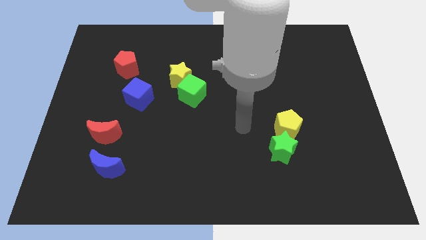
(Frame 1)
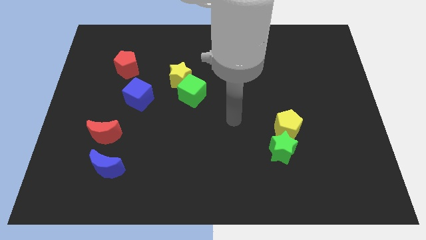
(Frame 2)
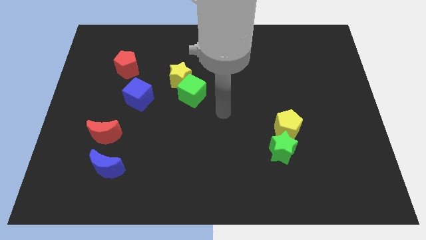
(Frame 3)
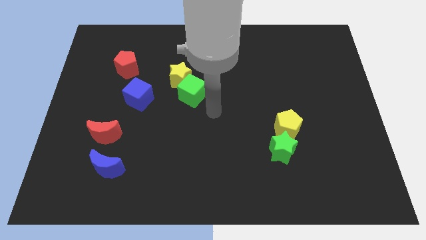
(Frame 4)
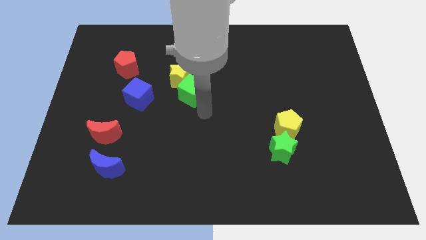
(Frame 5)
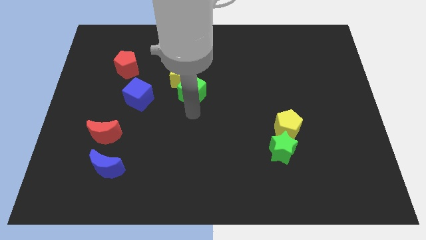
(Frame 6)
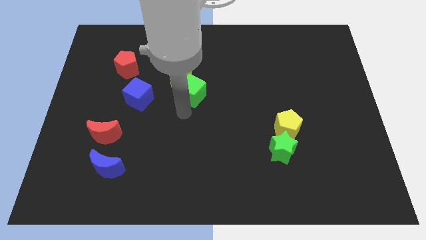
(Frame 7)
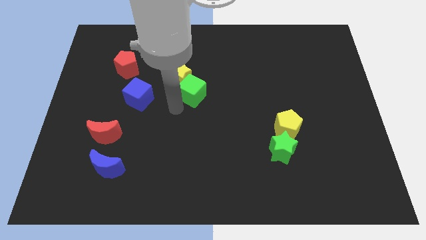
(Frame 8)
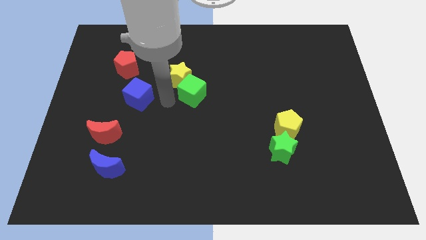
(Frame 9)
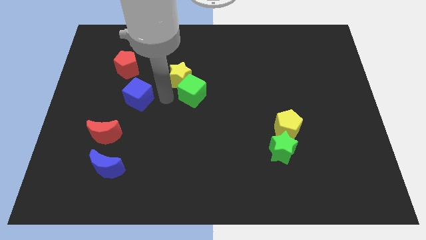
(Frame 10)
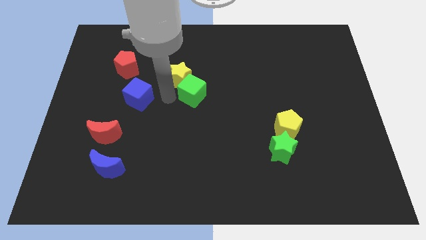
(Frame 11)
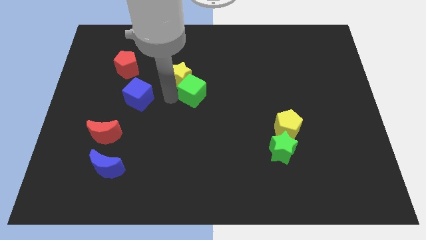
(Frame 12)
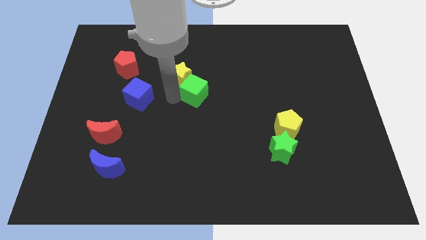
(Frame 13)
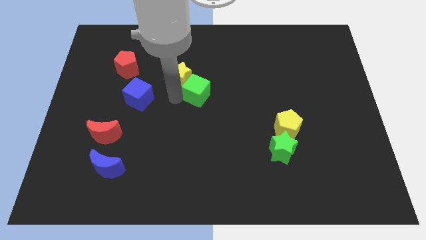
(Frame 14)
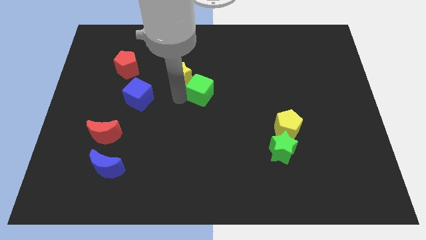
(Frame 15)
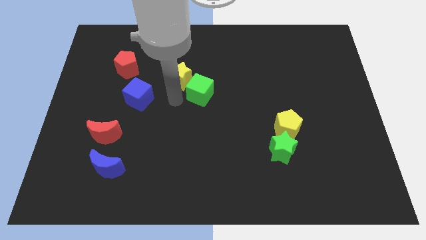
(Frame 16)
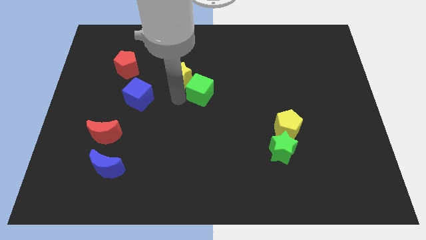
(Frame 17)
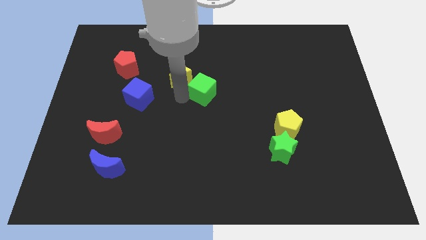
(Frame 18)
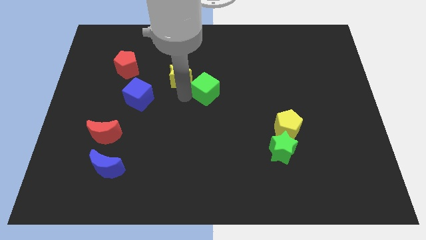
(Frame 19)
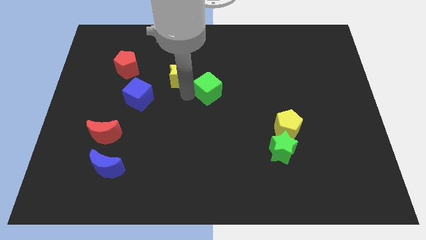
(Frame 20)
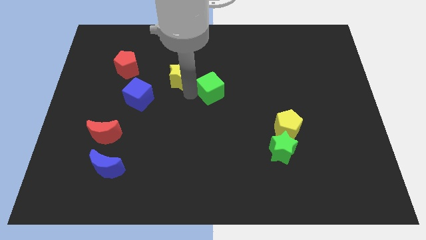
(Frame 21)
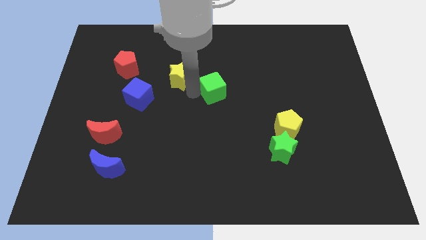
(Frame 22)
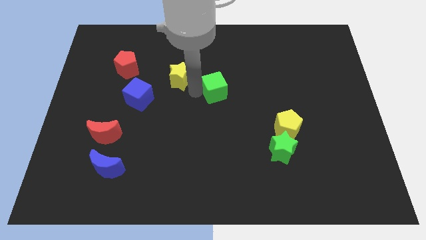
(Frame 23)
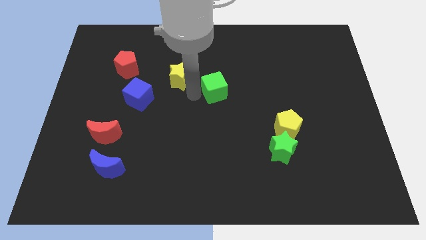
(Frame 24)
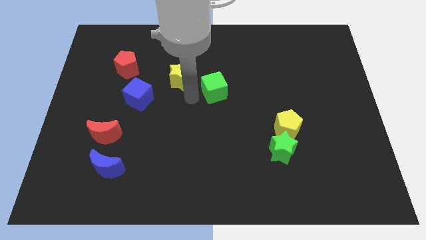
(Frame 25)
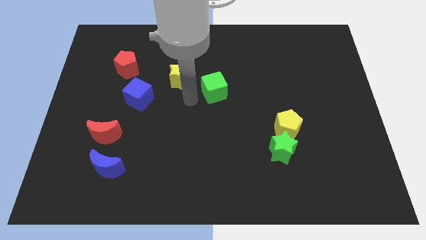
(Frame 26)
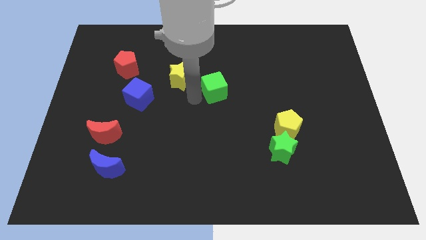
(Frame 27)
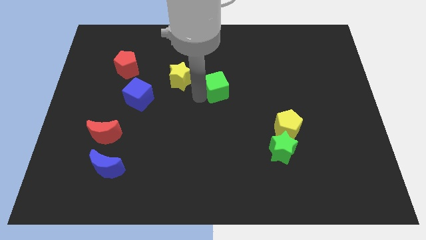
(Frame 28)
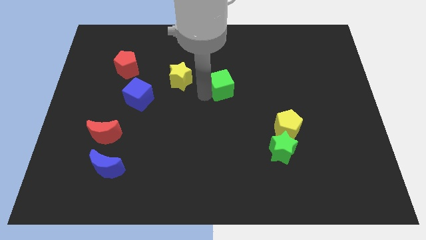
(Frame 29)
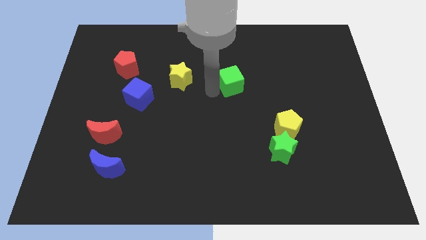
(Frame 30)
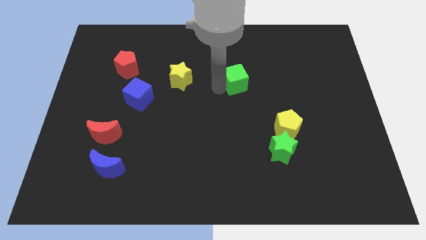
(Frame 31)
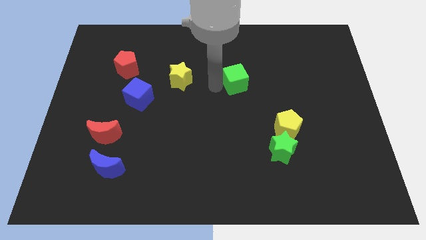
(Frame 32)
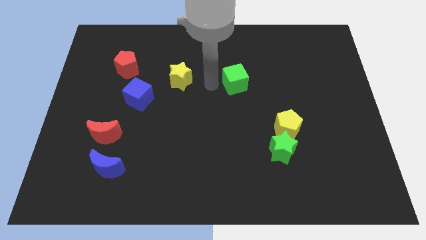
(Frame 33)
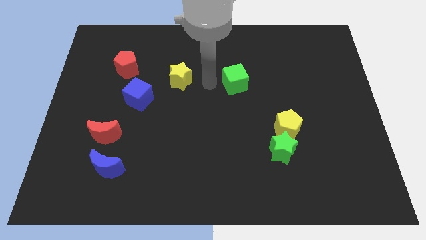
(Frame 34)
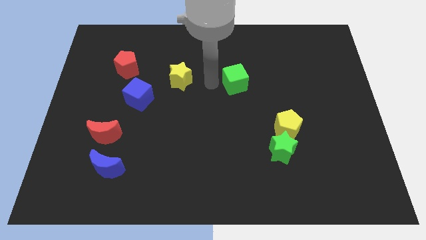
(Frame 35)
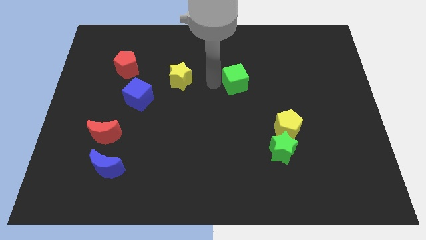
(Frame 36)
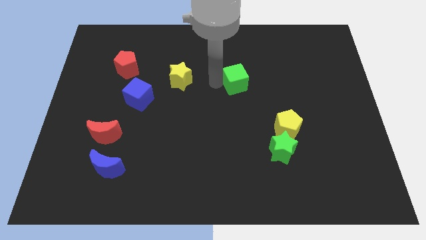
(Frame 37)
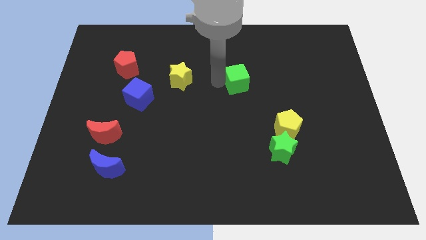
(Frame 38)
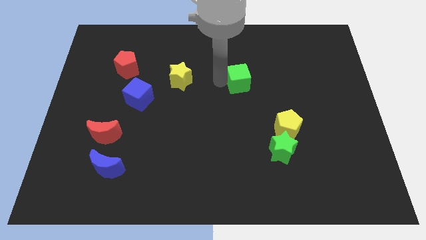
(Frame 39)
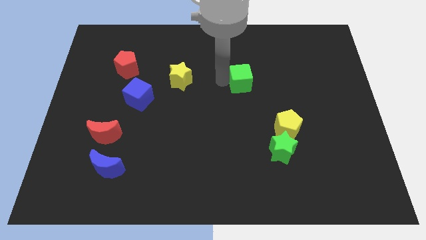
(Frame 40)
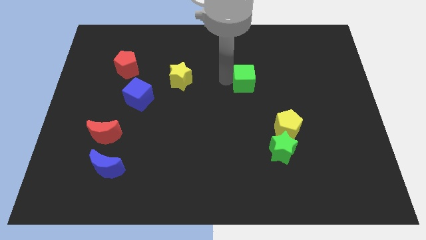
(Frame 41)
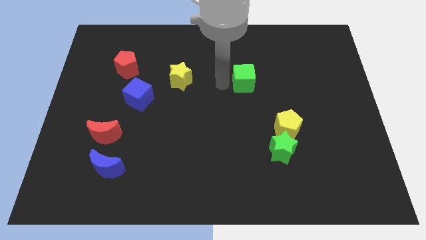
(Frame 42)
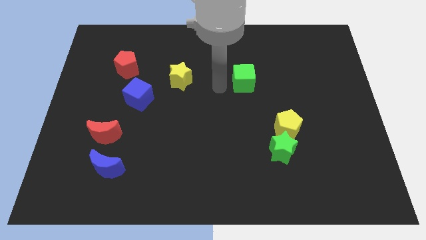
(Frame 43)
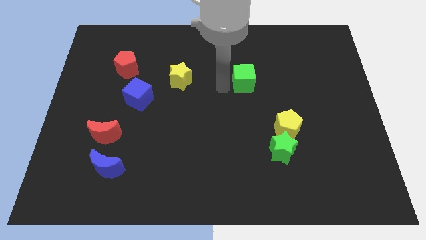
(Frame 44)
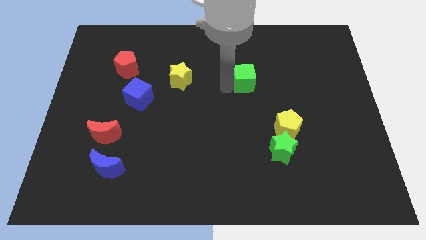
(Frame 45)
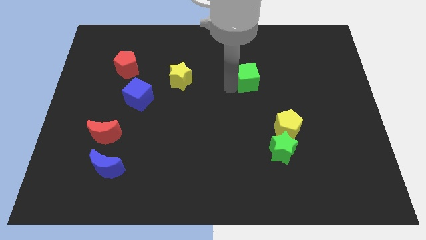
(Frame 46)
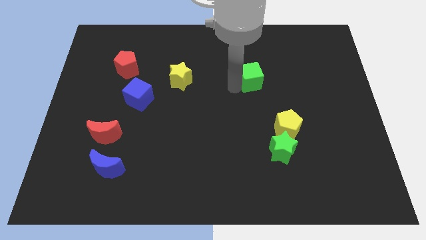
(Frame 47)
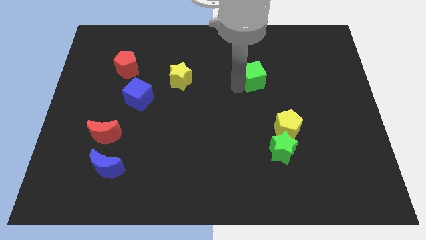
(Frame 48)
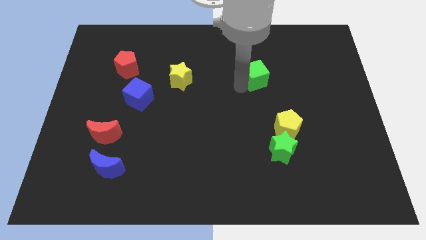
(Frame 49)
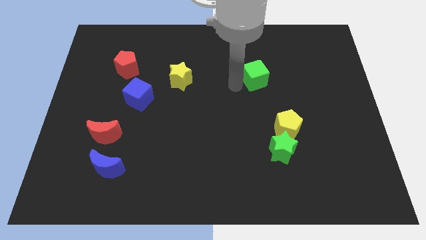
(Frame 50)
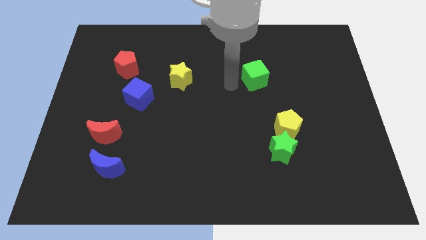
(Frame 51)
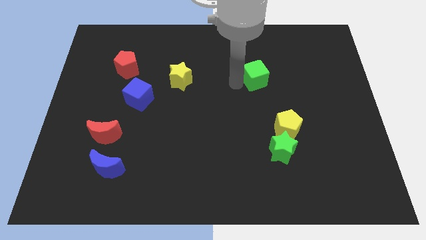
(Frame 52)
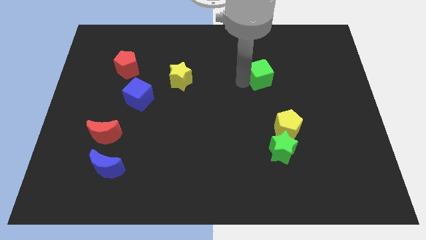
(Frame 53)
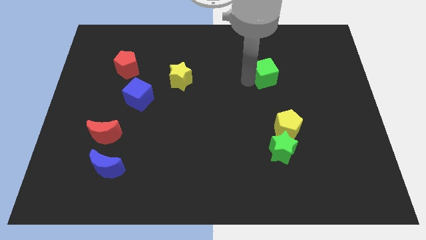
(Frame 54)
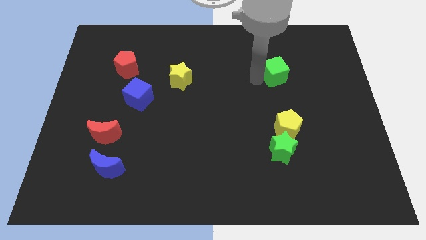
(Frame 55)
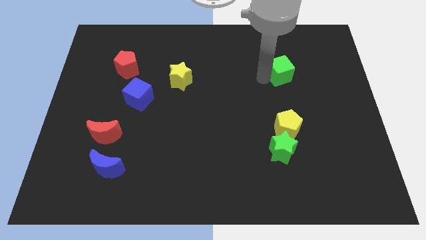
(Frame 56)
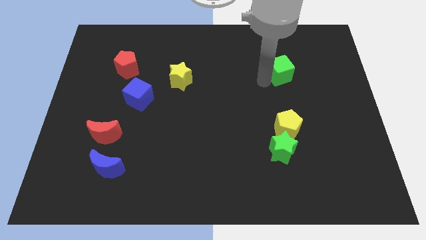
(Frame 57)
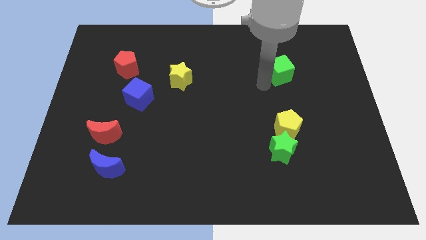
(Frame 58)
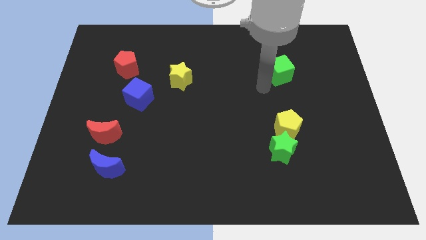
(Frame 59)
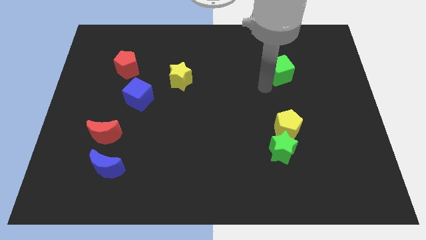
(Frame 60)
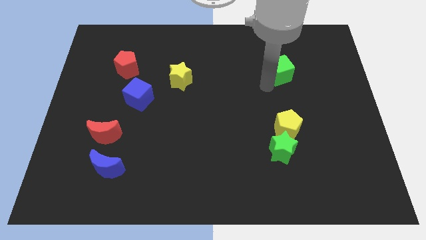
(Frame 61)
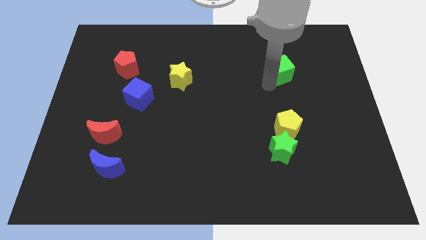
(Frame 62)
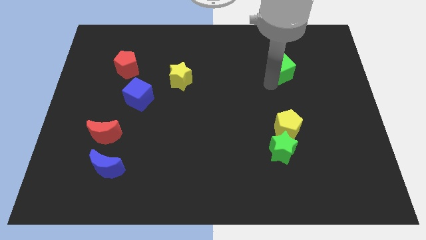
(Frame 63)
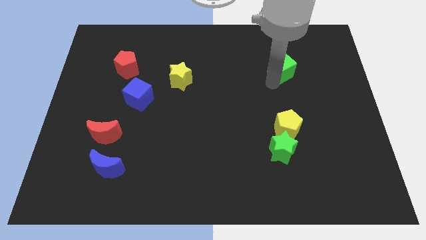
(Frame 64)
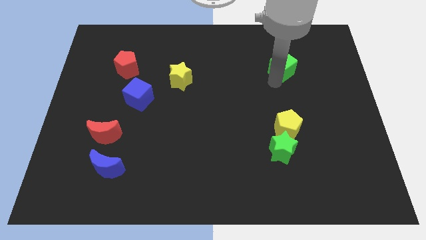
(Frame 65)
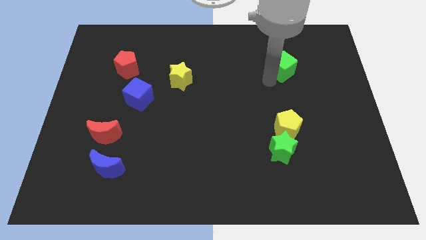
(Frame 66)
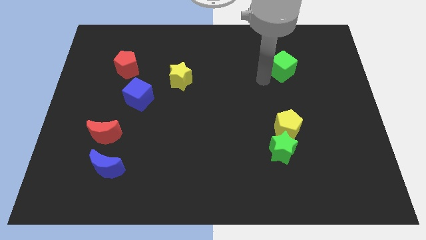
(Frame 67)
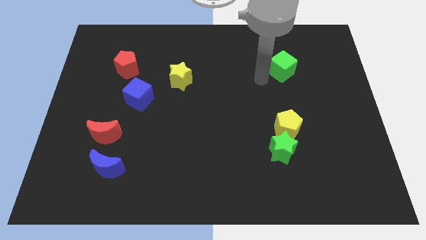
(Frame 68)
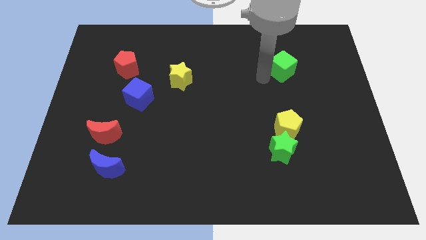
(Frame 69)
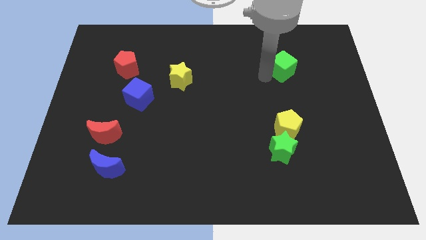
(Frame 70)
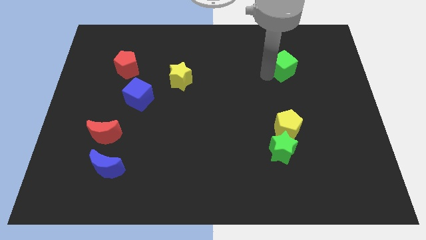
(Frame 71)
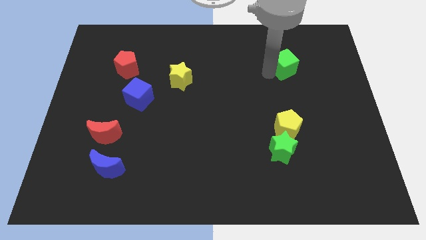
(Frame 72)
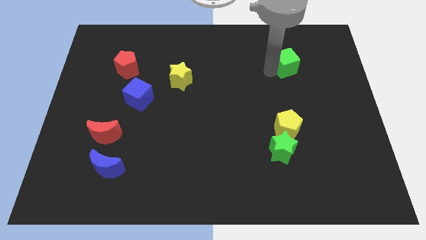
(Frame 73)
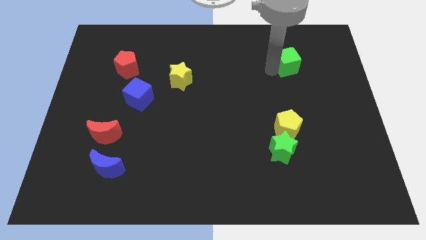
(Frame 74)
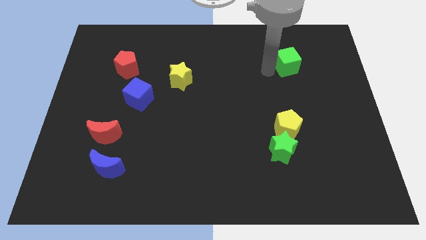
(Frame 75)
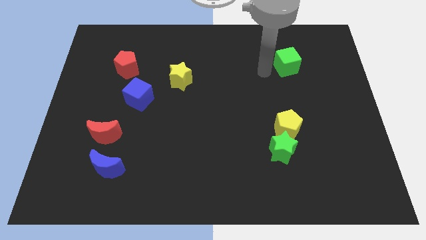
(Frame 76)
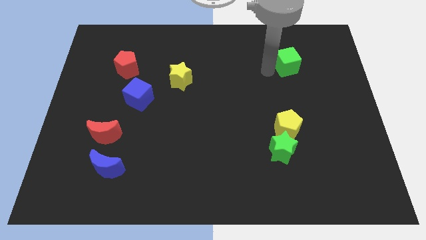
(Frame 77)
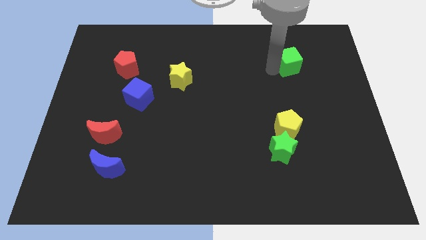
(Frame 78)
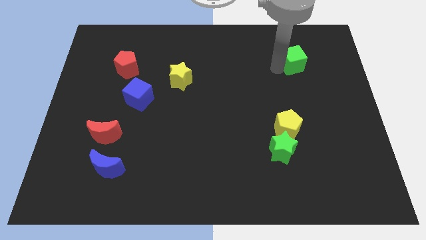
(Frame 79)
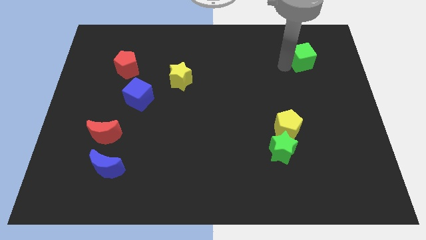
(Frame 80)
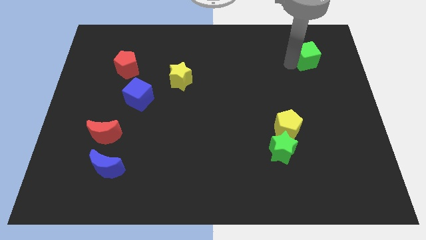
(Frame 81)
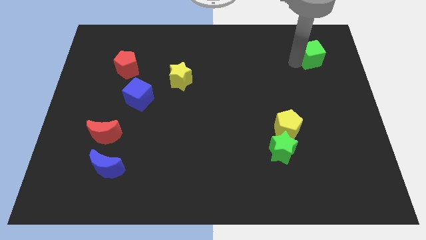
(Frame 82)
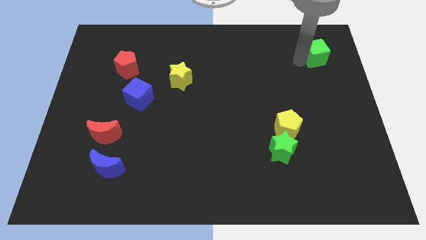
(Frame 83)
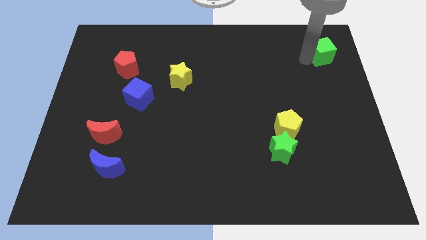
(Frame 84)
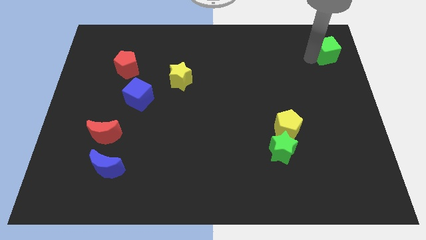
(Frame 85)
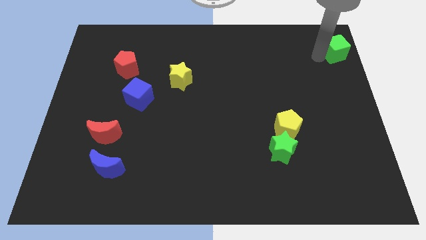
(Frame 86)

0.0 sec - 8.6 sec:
put the green cube to the top right corner
